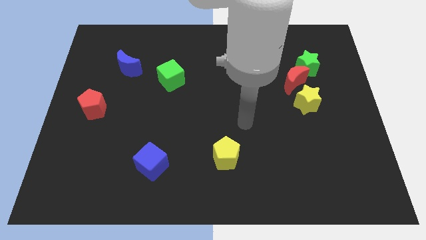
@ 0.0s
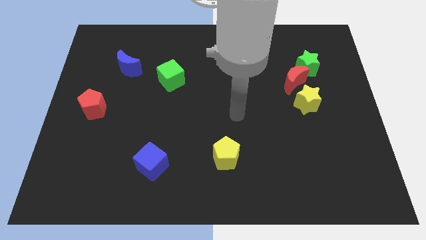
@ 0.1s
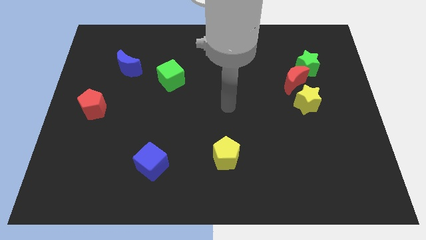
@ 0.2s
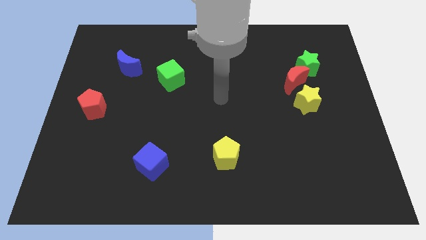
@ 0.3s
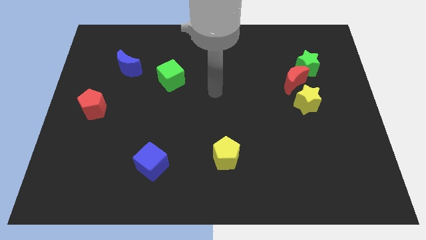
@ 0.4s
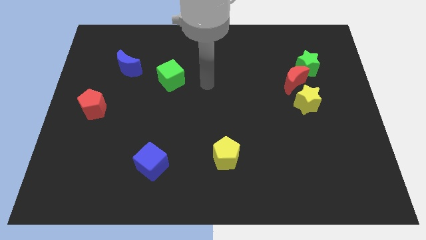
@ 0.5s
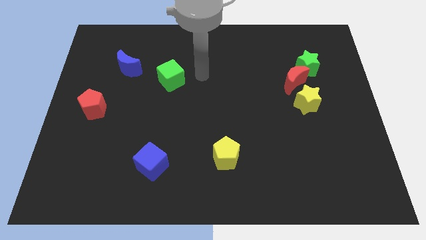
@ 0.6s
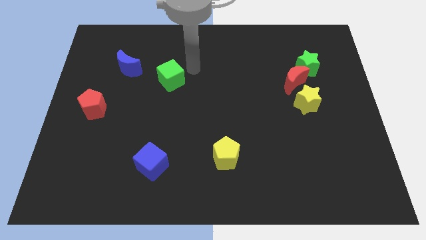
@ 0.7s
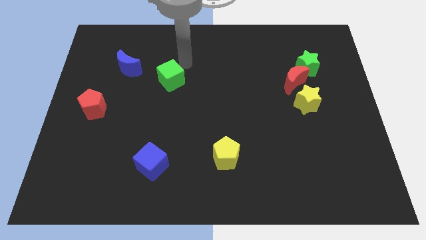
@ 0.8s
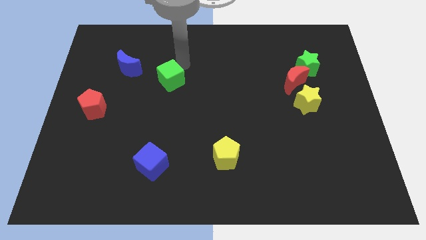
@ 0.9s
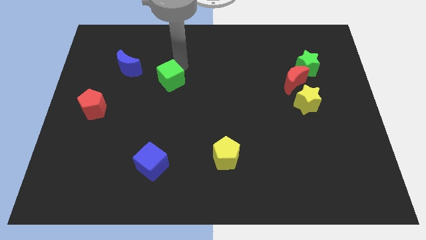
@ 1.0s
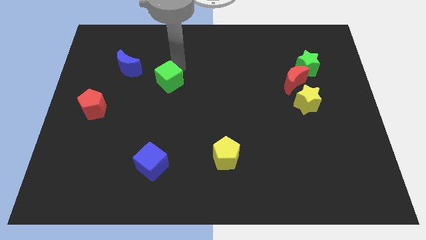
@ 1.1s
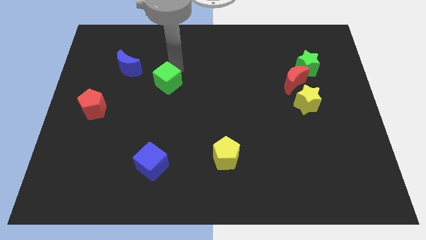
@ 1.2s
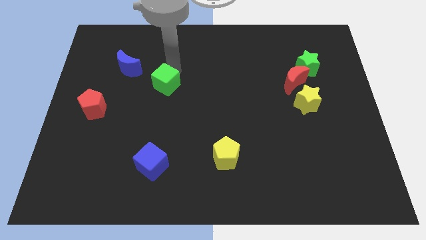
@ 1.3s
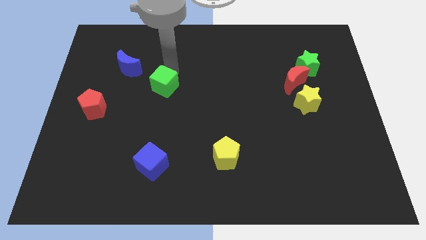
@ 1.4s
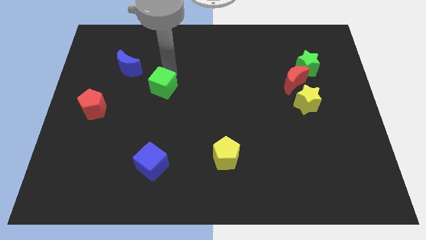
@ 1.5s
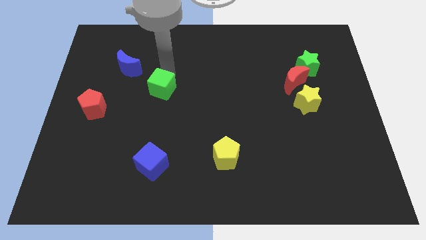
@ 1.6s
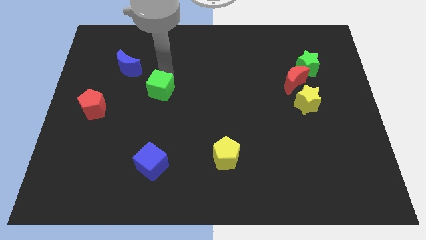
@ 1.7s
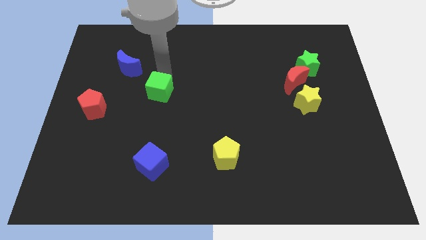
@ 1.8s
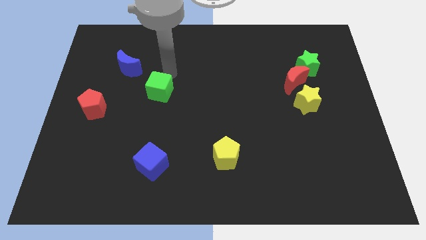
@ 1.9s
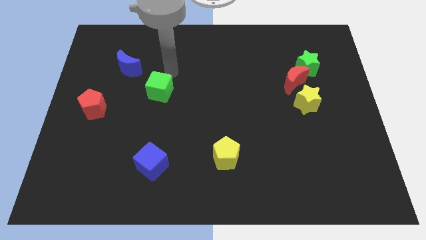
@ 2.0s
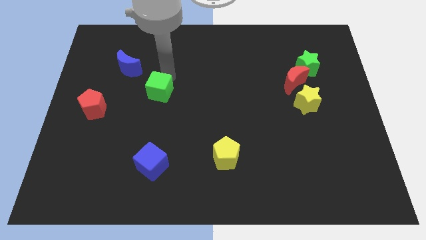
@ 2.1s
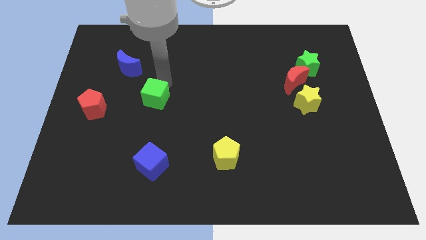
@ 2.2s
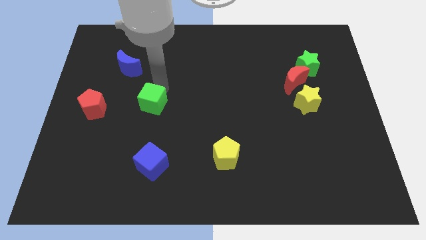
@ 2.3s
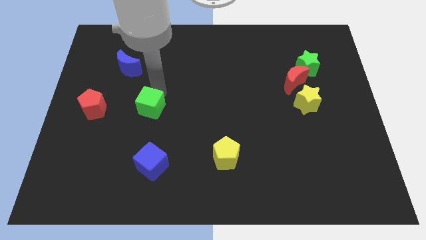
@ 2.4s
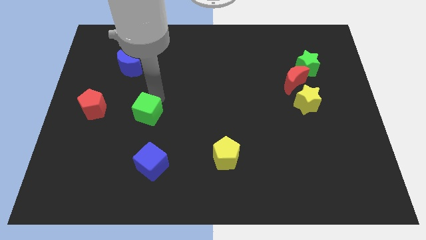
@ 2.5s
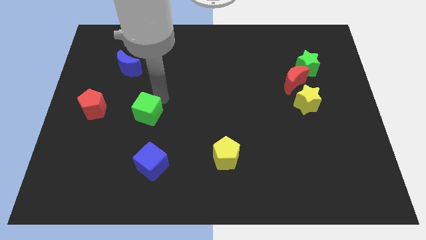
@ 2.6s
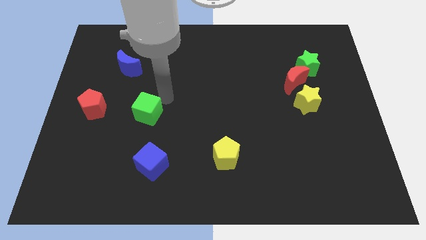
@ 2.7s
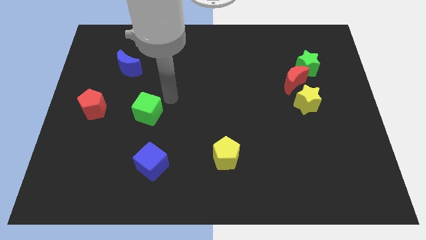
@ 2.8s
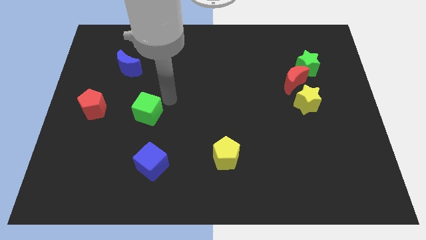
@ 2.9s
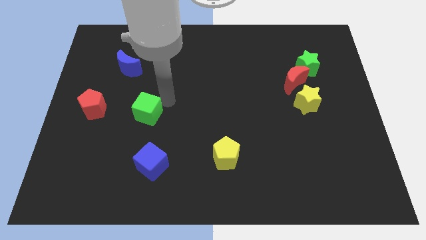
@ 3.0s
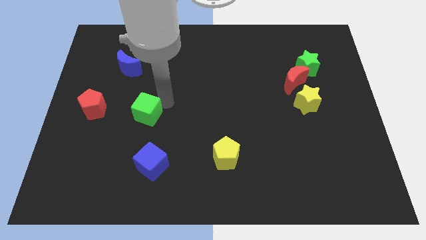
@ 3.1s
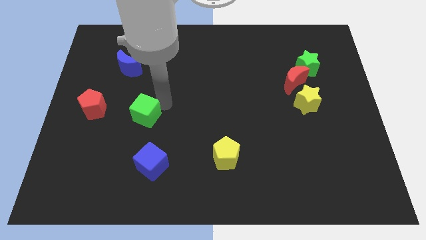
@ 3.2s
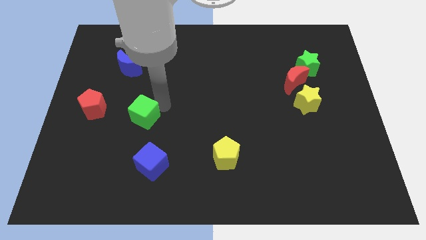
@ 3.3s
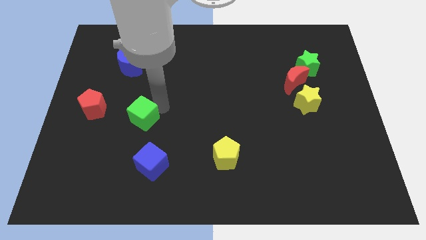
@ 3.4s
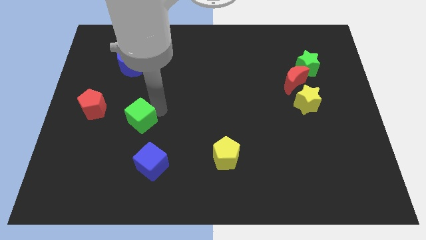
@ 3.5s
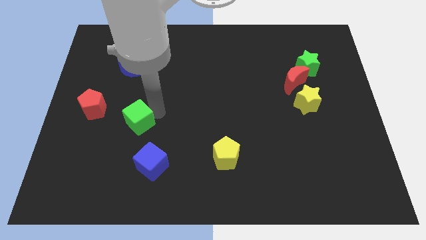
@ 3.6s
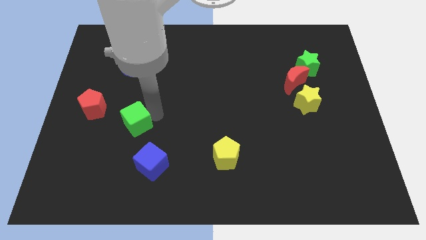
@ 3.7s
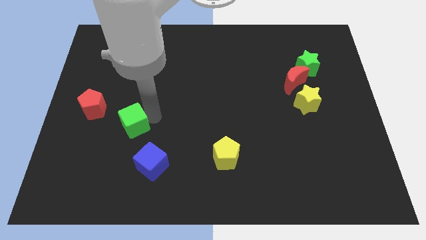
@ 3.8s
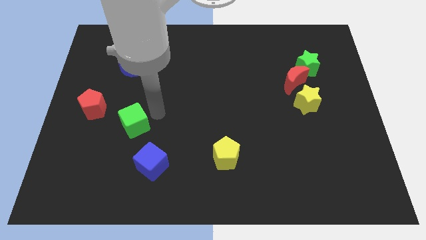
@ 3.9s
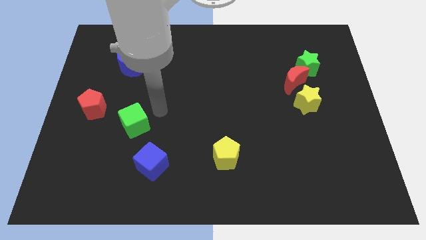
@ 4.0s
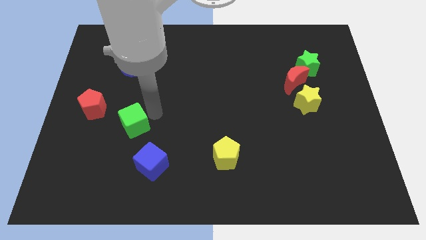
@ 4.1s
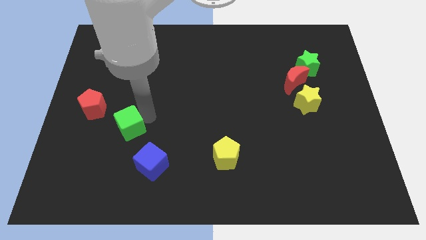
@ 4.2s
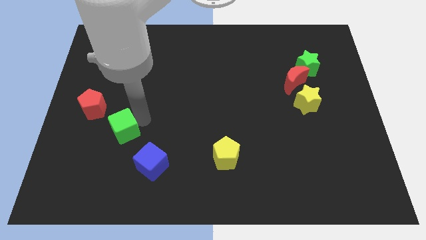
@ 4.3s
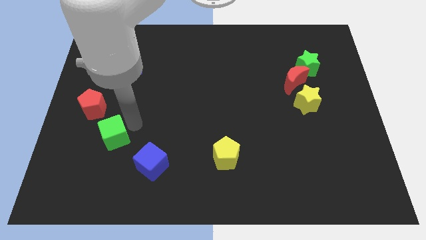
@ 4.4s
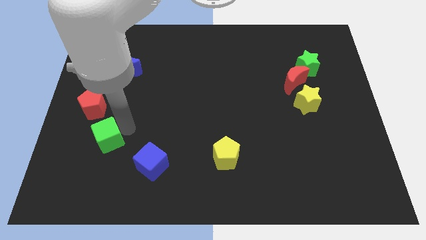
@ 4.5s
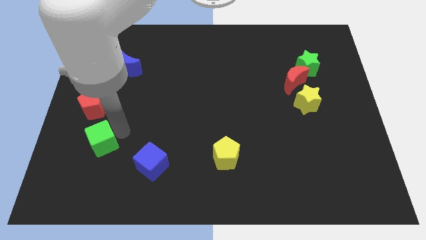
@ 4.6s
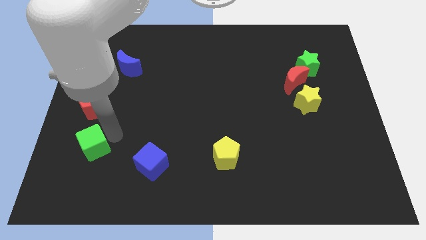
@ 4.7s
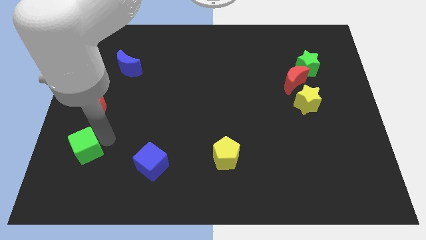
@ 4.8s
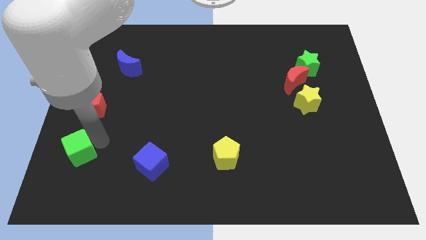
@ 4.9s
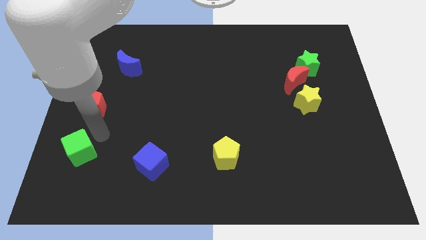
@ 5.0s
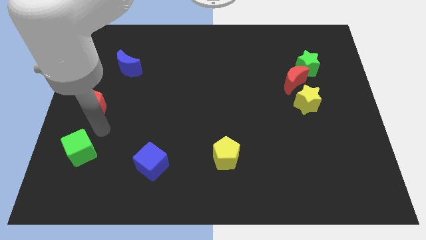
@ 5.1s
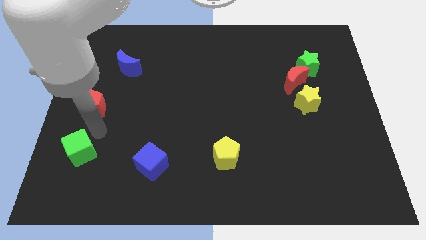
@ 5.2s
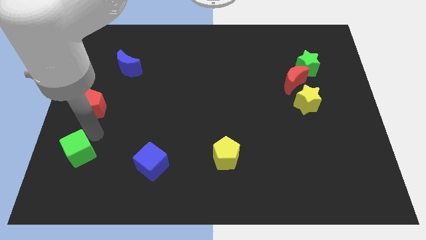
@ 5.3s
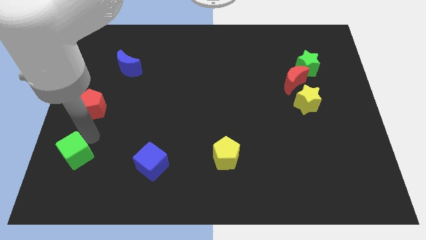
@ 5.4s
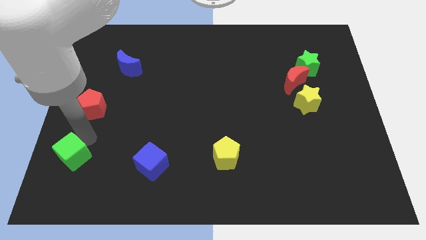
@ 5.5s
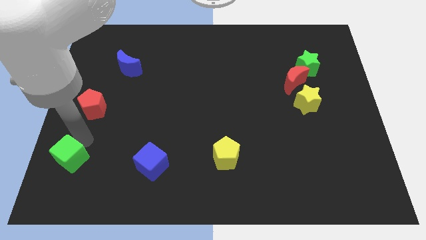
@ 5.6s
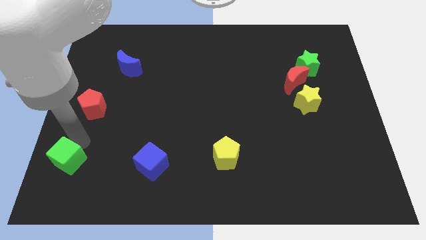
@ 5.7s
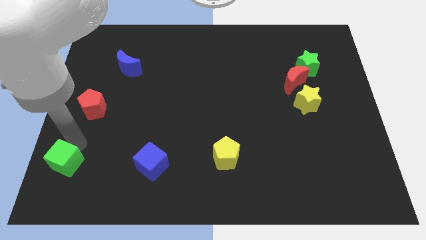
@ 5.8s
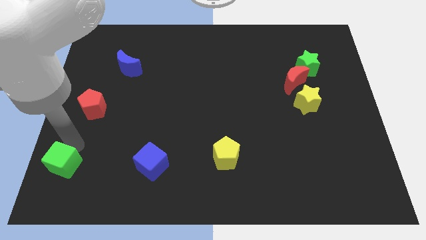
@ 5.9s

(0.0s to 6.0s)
move the green cube to the bottom left of the board

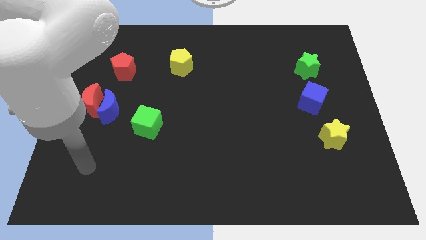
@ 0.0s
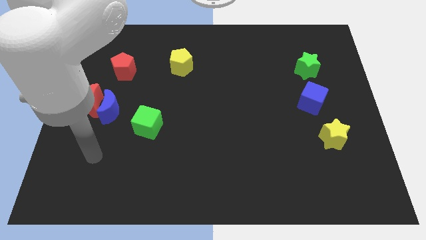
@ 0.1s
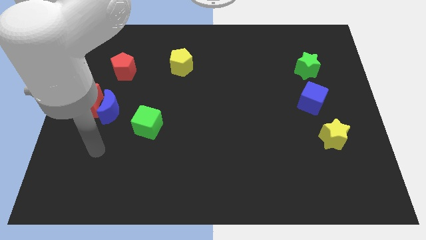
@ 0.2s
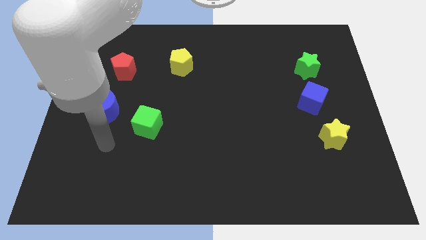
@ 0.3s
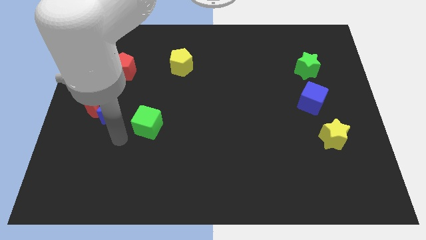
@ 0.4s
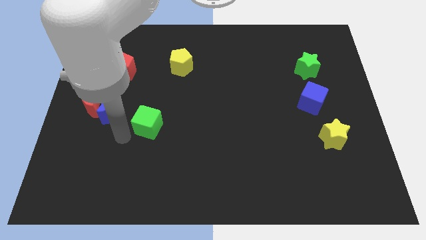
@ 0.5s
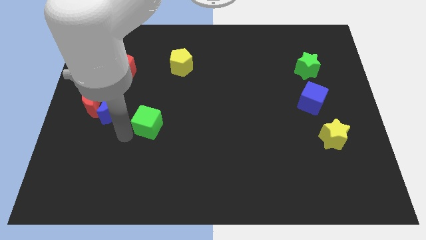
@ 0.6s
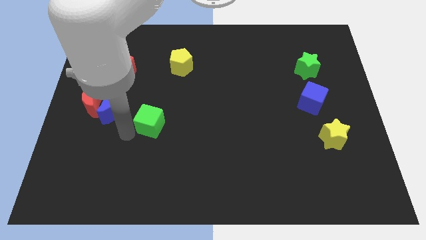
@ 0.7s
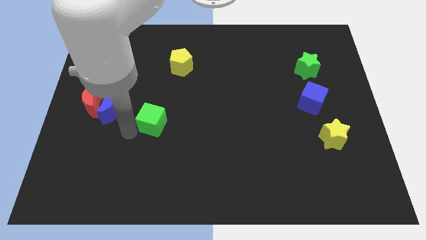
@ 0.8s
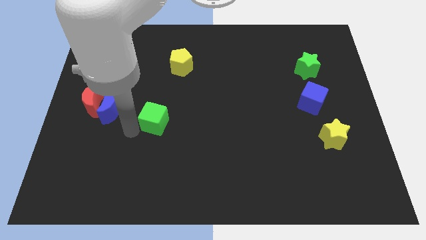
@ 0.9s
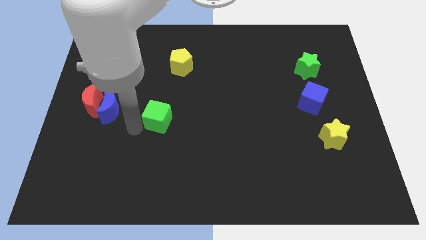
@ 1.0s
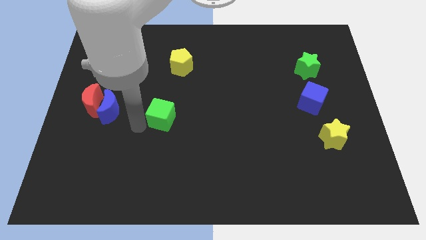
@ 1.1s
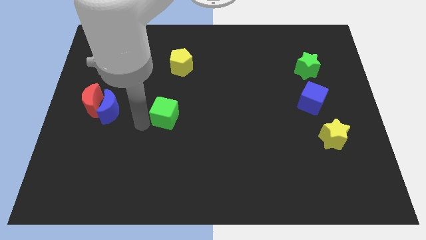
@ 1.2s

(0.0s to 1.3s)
put the green cube to the center of the board
